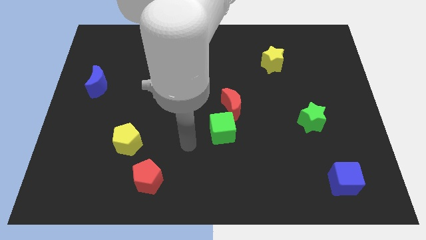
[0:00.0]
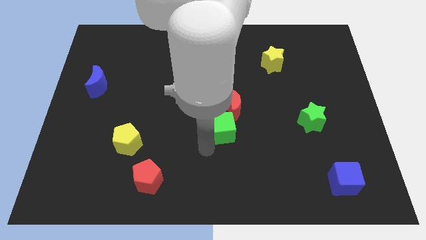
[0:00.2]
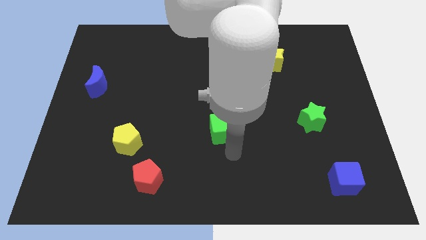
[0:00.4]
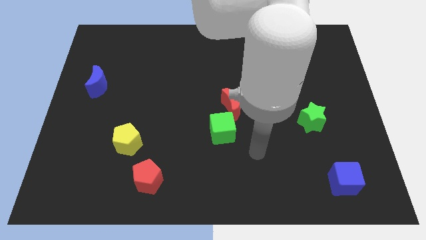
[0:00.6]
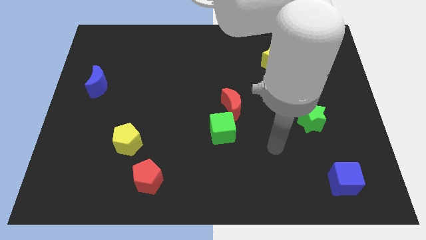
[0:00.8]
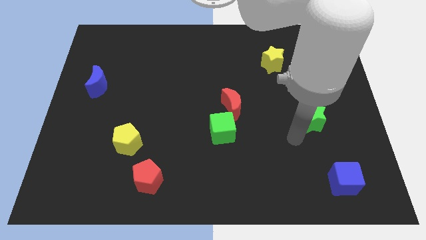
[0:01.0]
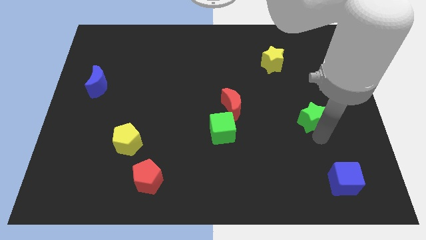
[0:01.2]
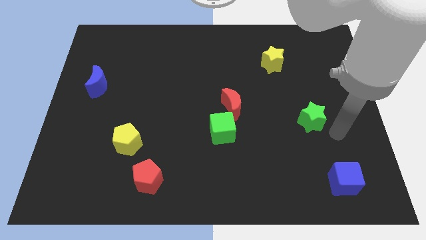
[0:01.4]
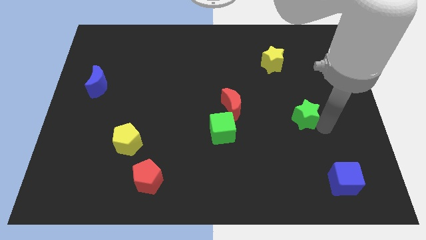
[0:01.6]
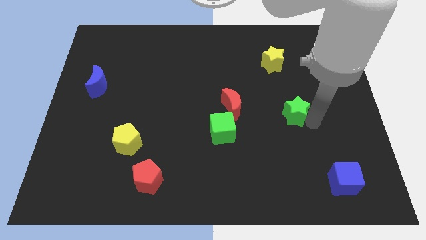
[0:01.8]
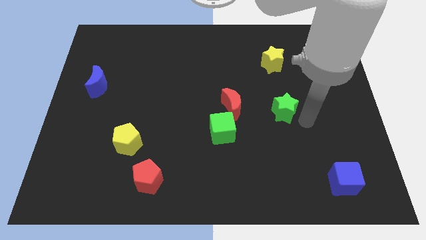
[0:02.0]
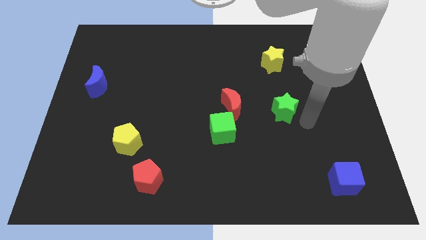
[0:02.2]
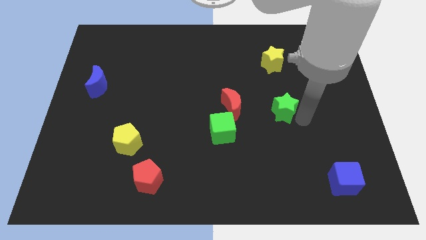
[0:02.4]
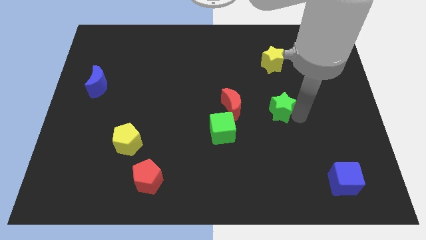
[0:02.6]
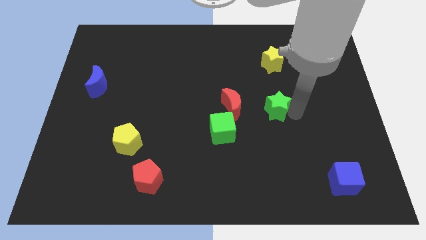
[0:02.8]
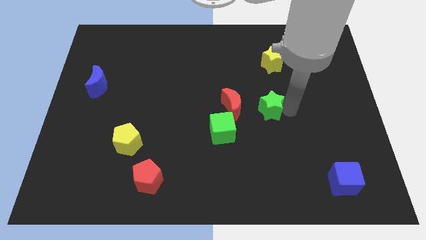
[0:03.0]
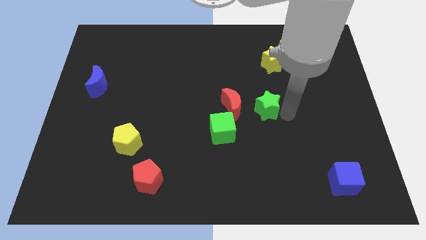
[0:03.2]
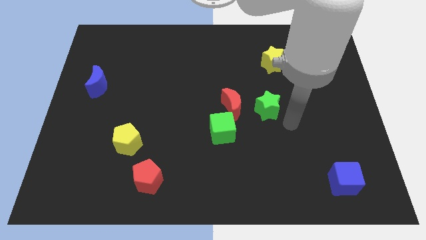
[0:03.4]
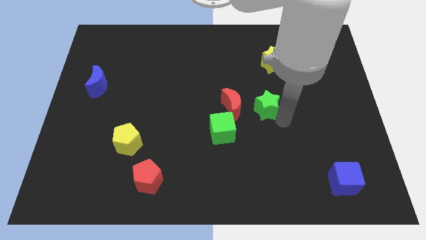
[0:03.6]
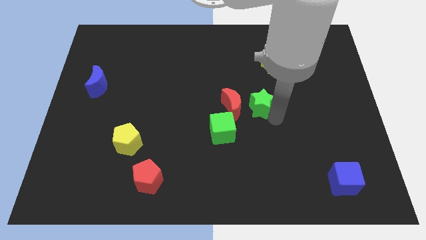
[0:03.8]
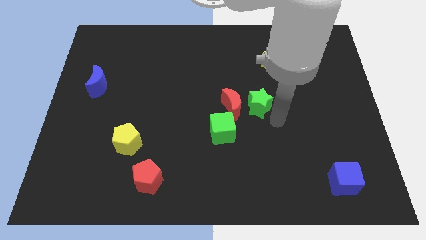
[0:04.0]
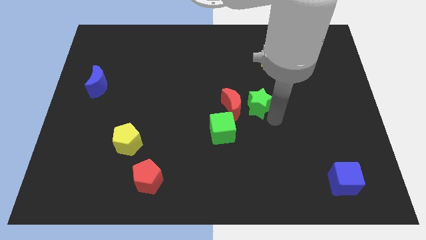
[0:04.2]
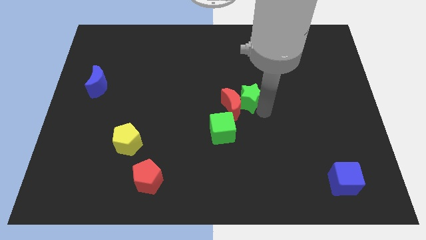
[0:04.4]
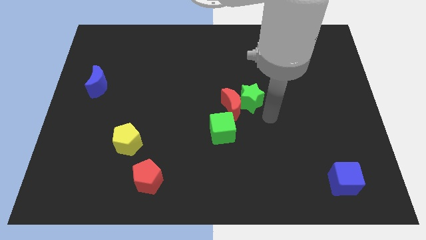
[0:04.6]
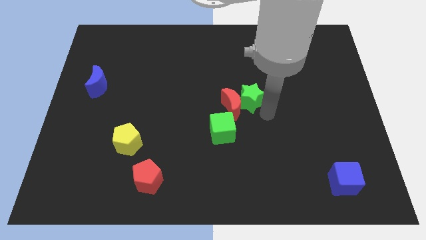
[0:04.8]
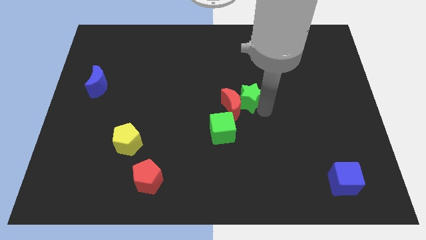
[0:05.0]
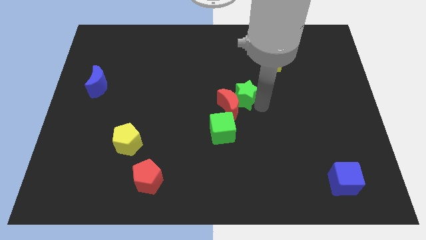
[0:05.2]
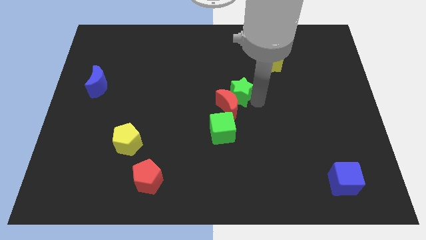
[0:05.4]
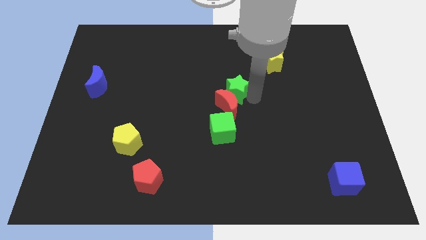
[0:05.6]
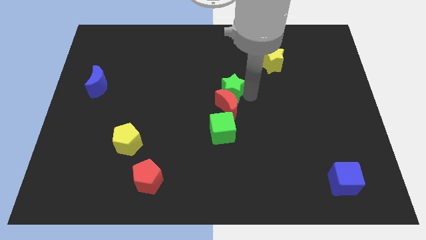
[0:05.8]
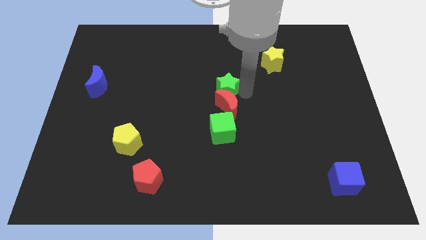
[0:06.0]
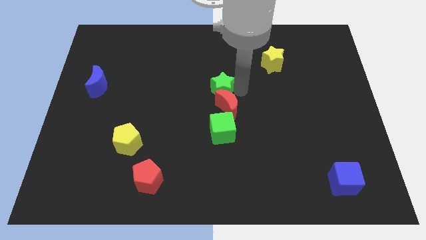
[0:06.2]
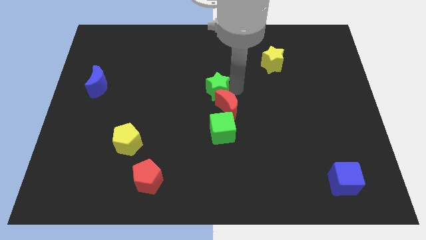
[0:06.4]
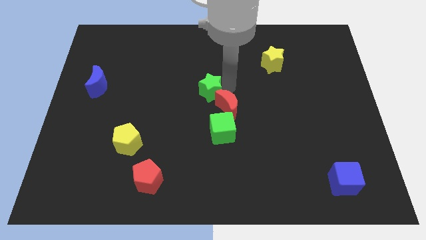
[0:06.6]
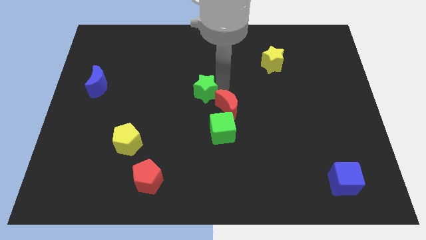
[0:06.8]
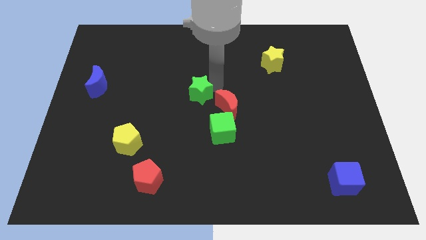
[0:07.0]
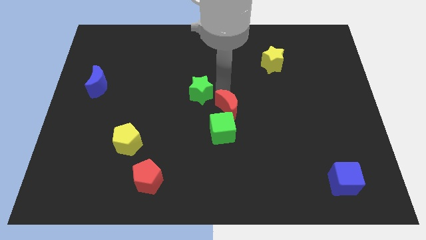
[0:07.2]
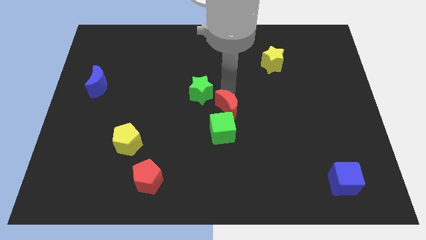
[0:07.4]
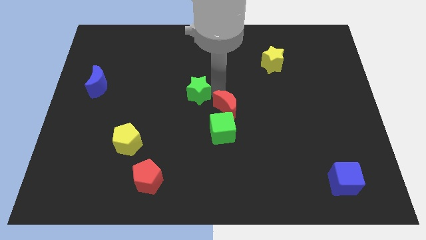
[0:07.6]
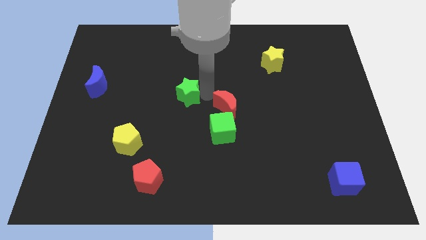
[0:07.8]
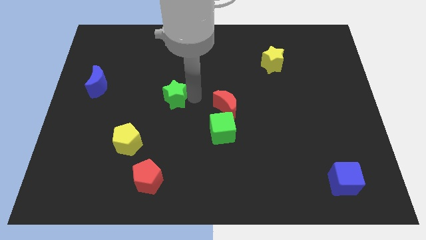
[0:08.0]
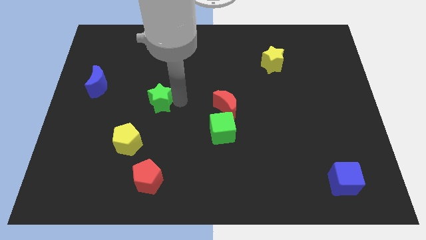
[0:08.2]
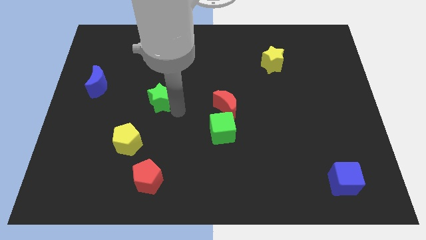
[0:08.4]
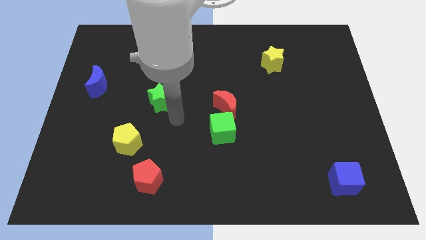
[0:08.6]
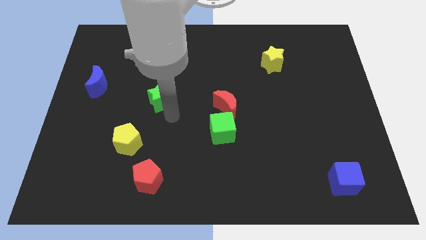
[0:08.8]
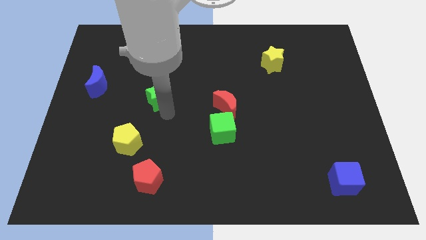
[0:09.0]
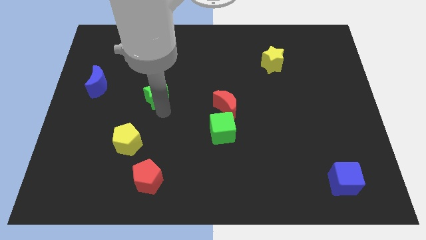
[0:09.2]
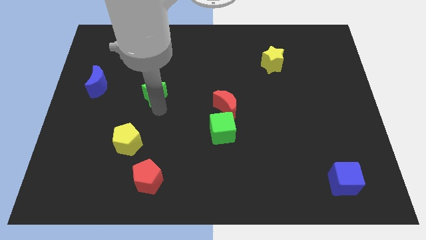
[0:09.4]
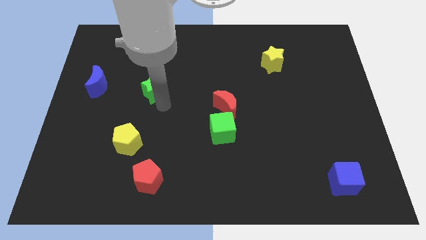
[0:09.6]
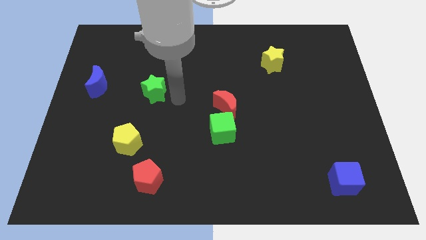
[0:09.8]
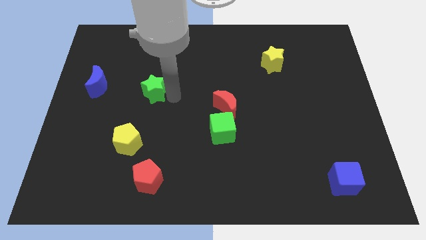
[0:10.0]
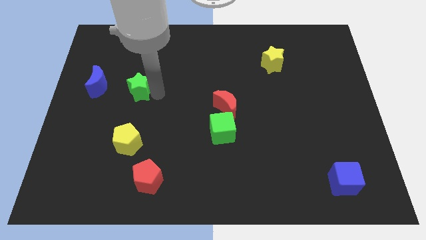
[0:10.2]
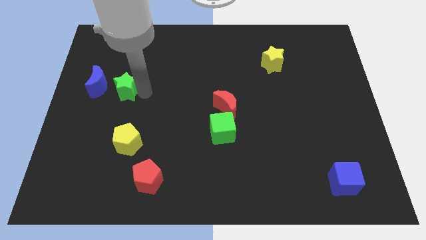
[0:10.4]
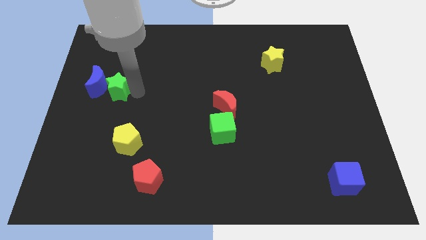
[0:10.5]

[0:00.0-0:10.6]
push the green star close to the blue moon
